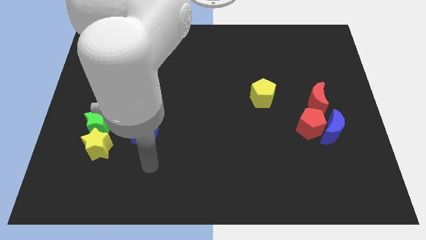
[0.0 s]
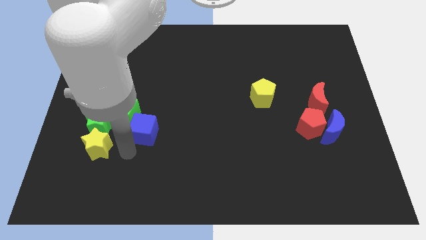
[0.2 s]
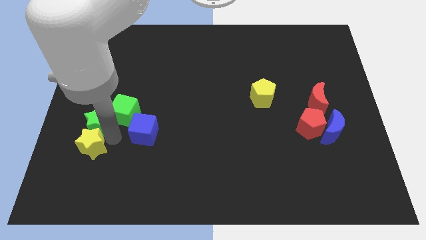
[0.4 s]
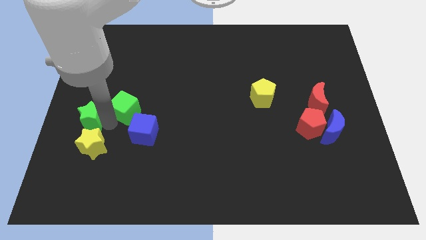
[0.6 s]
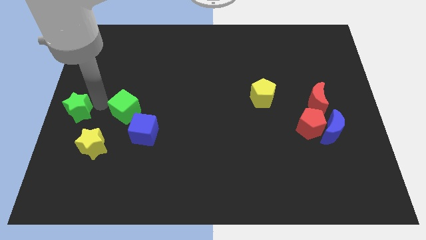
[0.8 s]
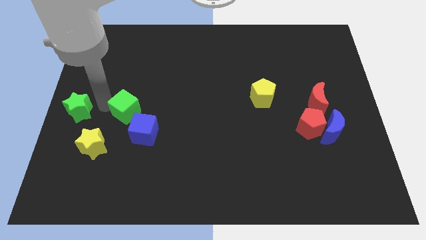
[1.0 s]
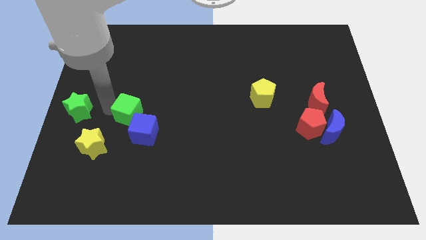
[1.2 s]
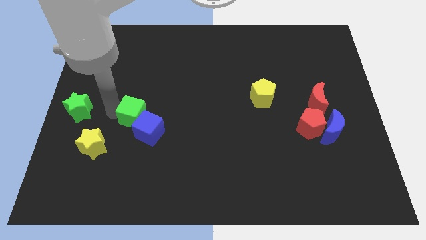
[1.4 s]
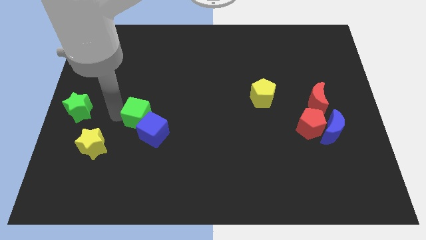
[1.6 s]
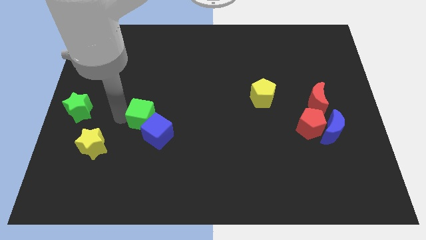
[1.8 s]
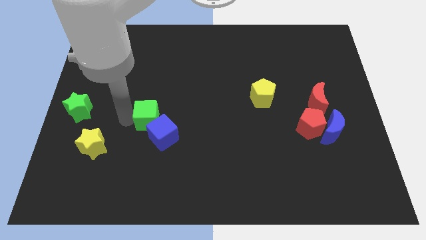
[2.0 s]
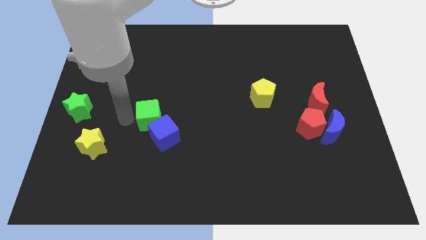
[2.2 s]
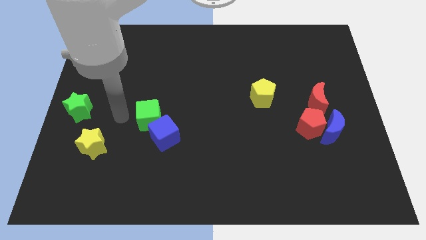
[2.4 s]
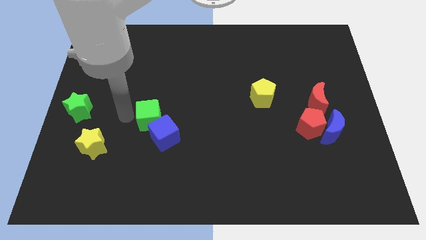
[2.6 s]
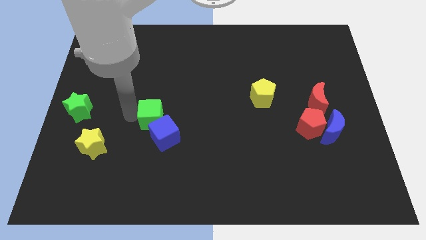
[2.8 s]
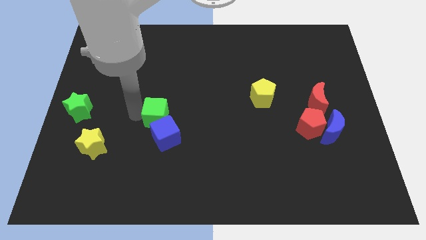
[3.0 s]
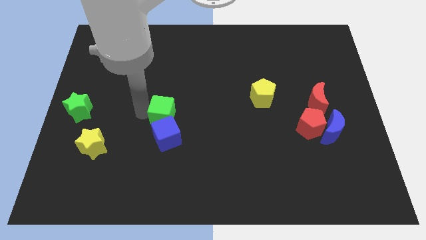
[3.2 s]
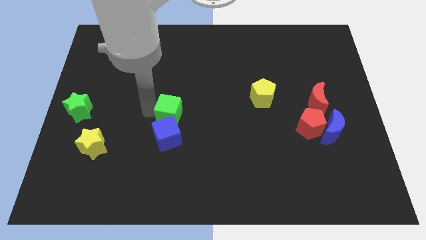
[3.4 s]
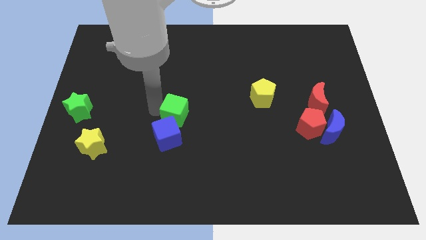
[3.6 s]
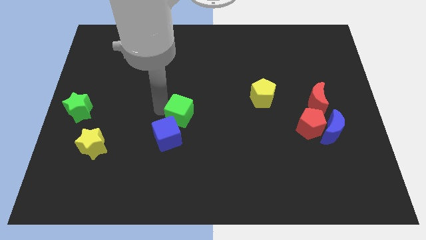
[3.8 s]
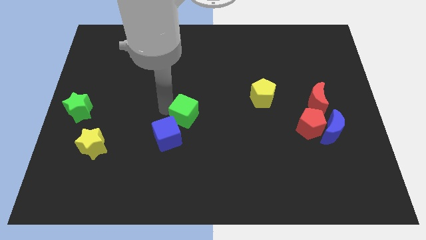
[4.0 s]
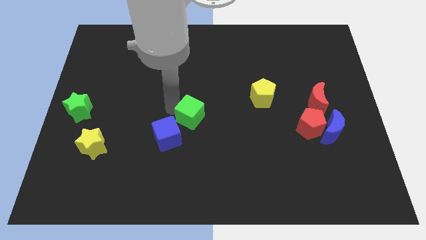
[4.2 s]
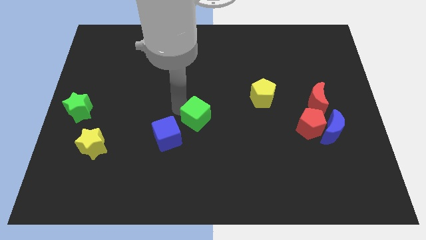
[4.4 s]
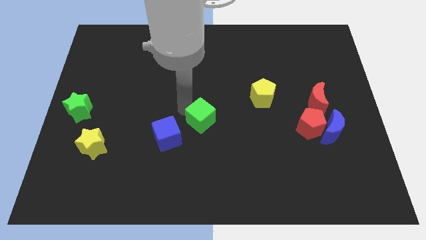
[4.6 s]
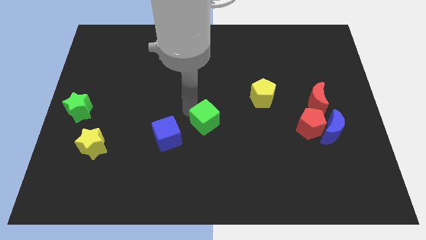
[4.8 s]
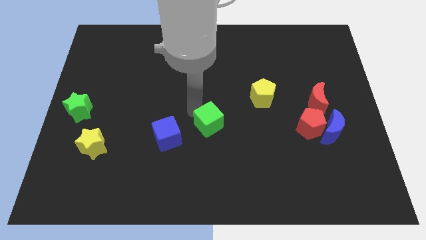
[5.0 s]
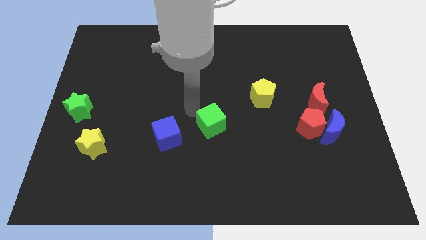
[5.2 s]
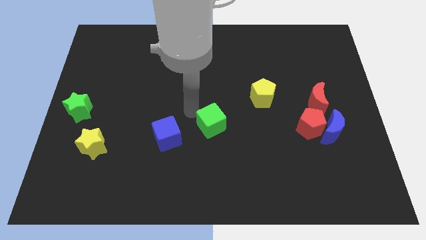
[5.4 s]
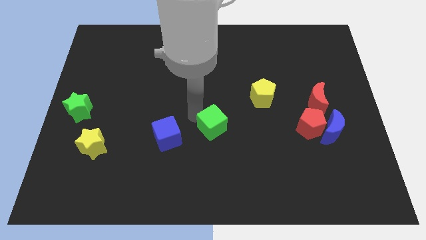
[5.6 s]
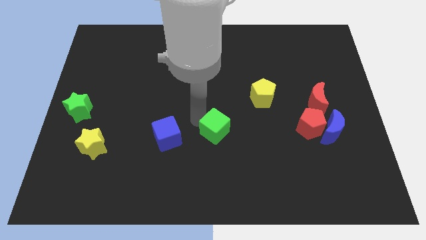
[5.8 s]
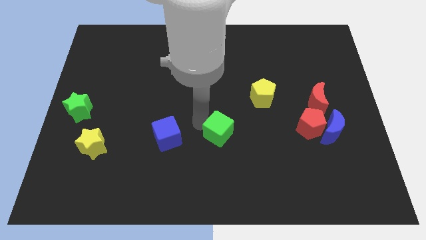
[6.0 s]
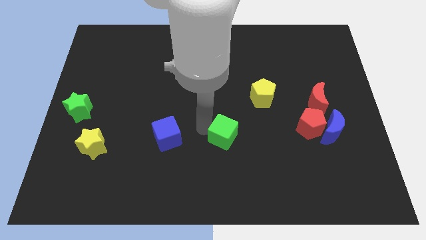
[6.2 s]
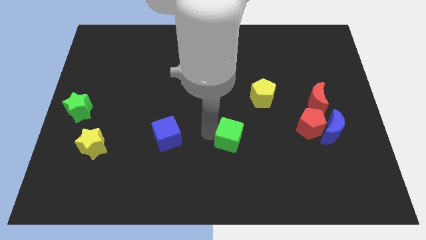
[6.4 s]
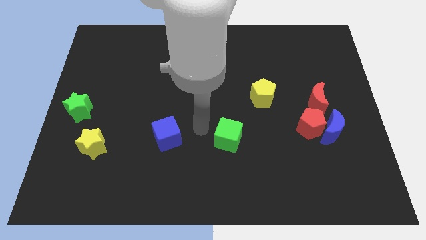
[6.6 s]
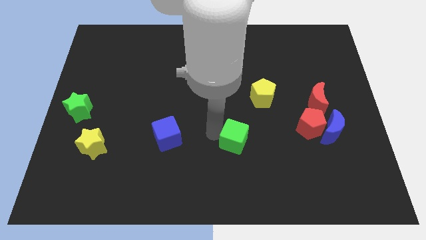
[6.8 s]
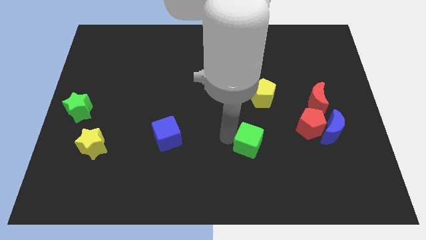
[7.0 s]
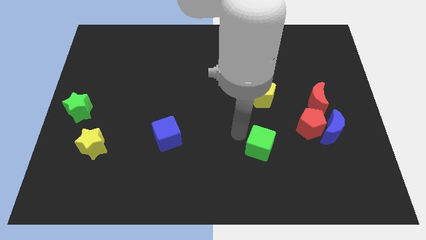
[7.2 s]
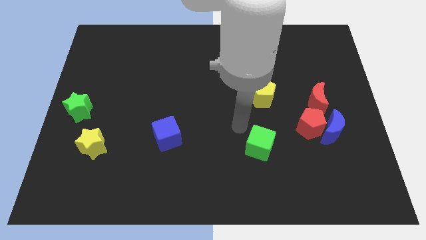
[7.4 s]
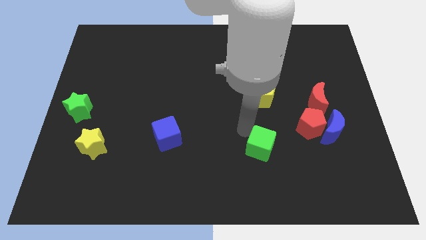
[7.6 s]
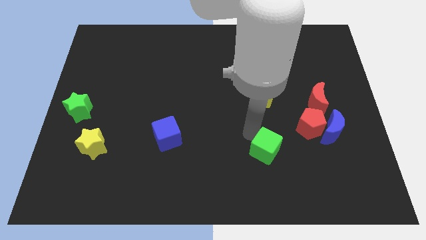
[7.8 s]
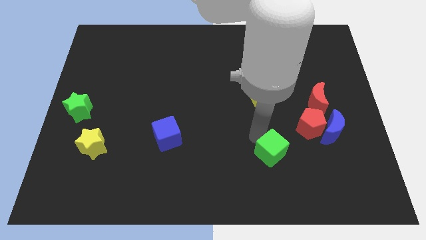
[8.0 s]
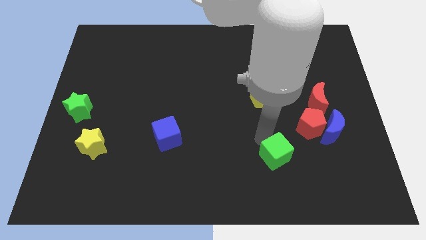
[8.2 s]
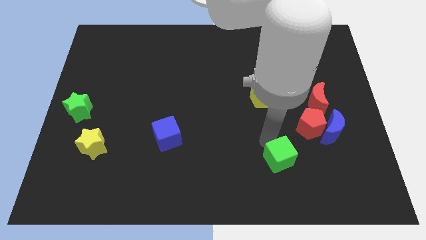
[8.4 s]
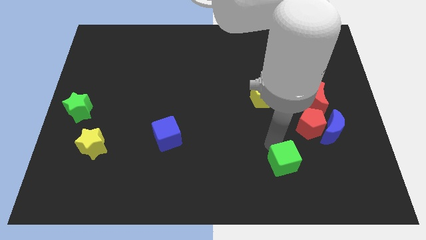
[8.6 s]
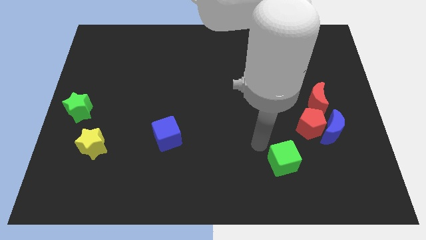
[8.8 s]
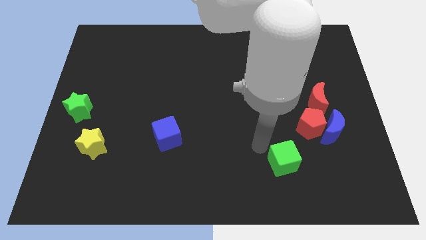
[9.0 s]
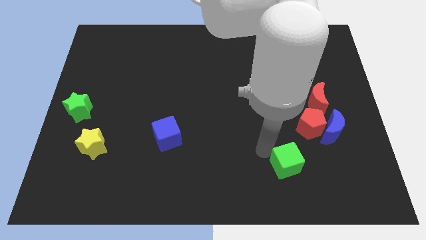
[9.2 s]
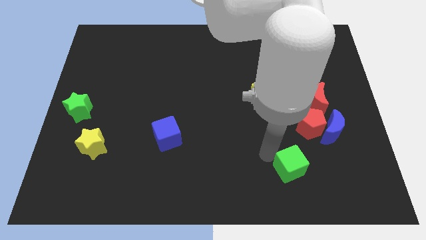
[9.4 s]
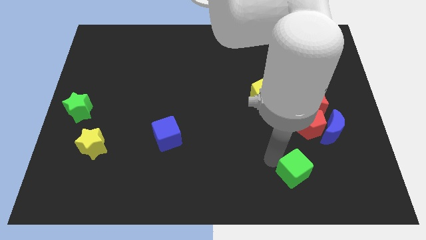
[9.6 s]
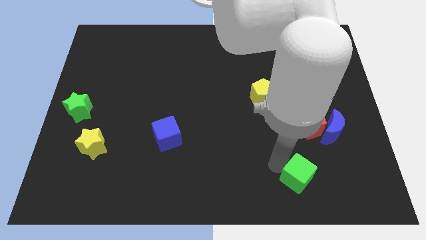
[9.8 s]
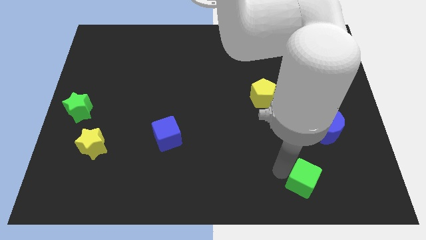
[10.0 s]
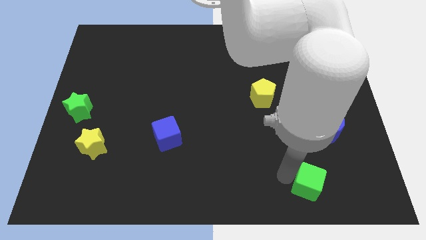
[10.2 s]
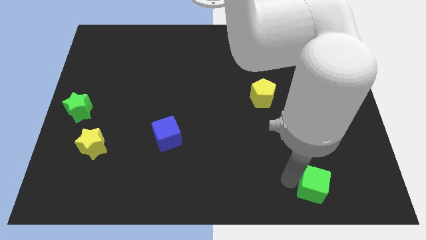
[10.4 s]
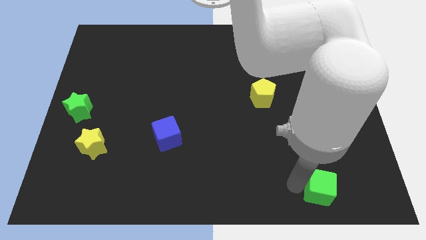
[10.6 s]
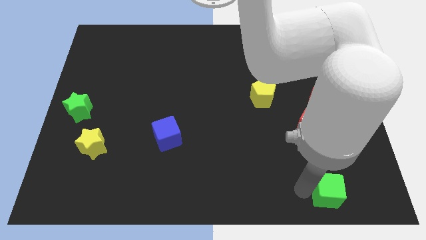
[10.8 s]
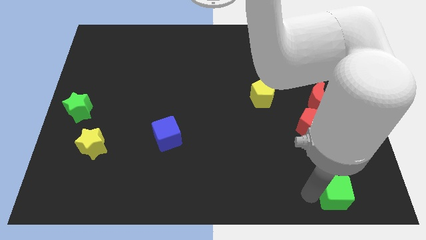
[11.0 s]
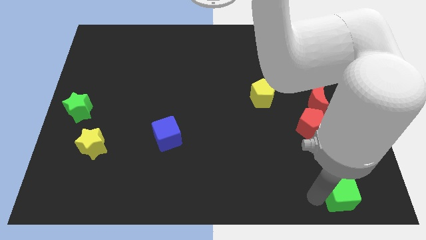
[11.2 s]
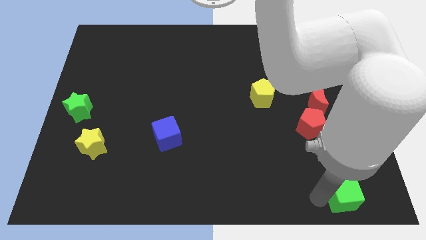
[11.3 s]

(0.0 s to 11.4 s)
move the green cube to the bottom right

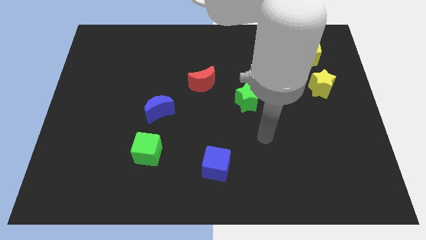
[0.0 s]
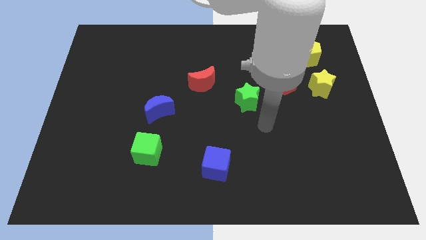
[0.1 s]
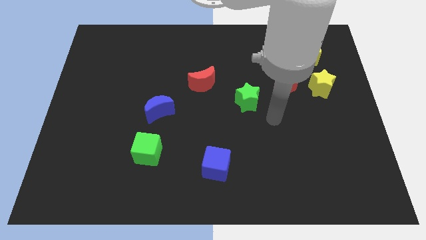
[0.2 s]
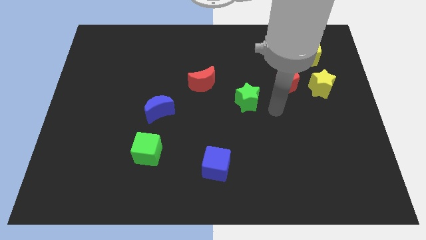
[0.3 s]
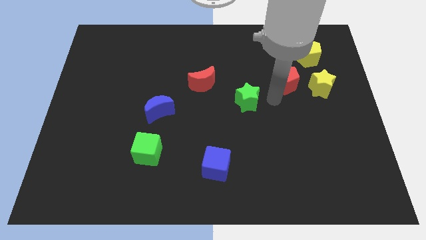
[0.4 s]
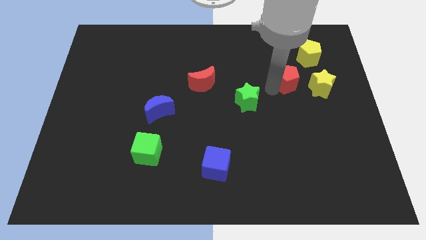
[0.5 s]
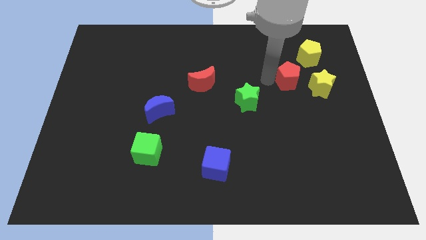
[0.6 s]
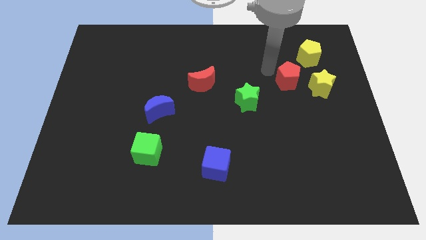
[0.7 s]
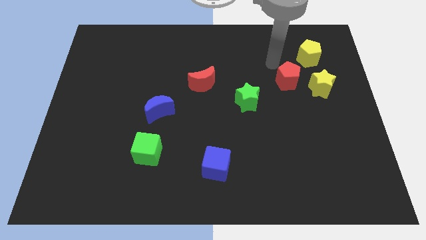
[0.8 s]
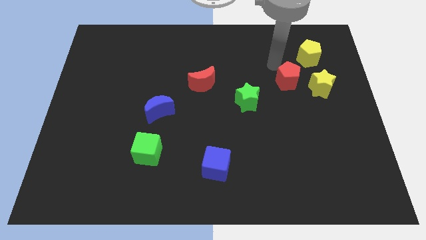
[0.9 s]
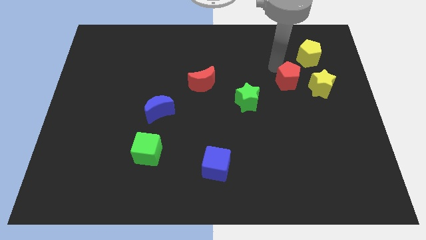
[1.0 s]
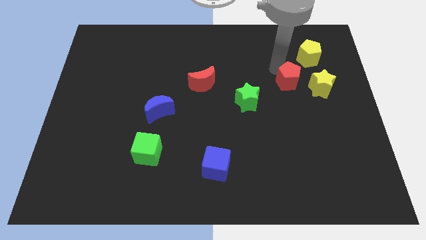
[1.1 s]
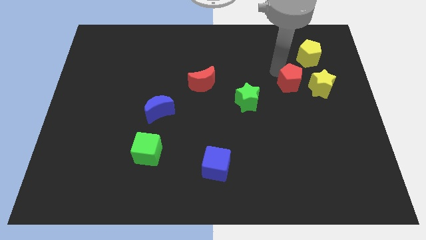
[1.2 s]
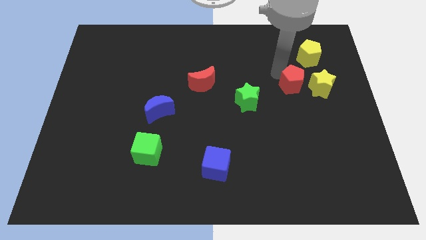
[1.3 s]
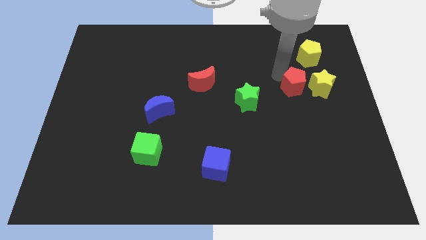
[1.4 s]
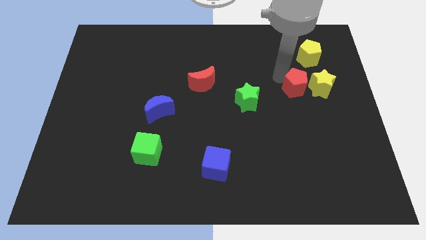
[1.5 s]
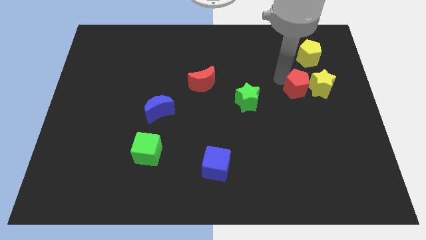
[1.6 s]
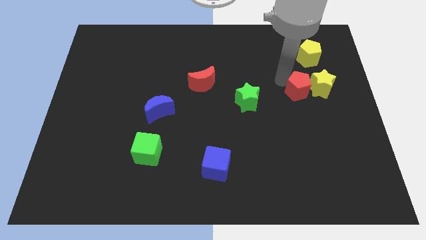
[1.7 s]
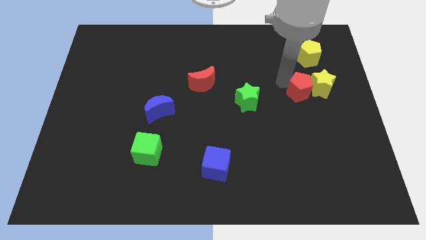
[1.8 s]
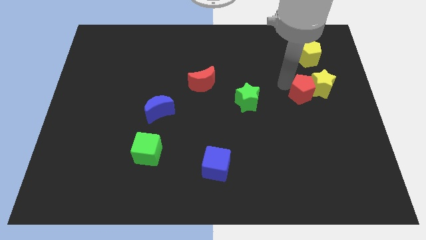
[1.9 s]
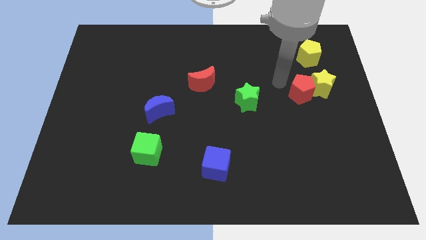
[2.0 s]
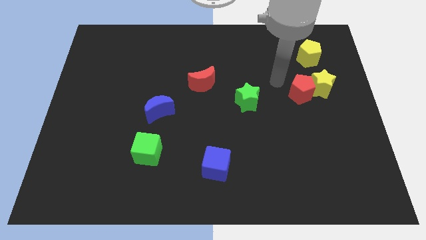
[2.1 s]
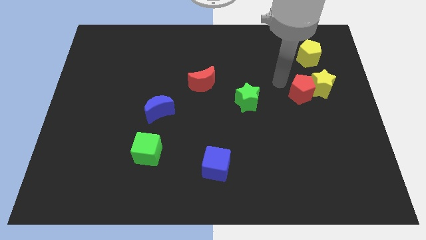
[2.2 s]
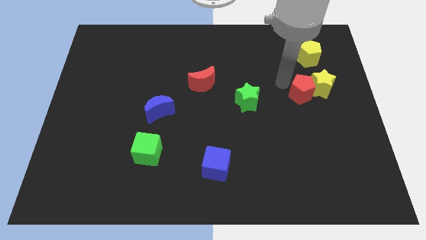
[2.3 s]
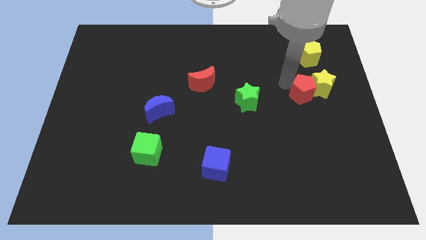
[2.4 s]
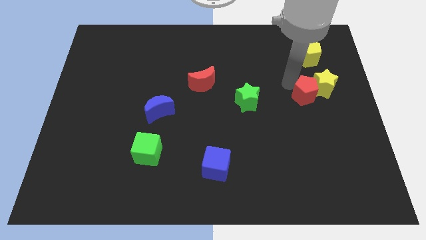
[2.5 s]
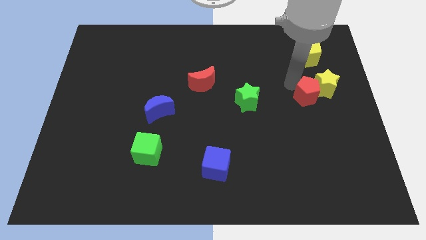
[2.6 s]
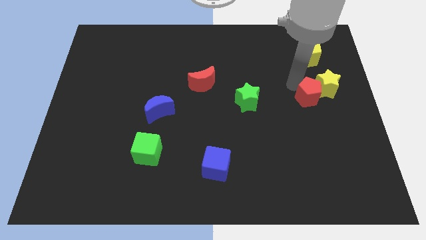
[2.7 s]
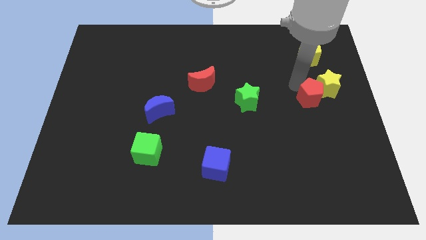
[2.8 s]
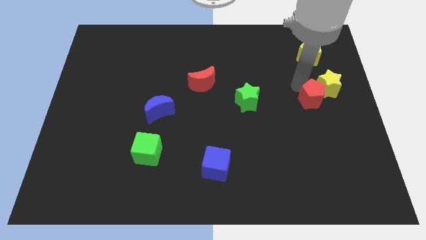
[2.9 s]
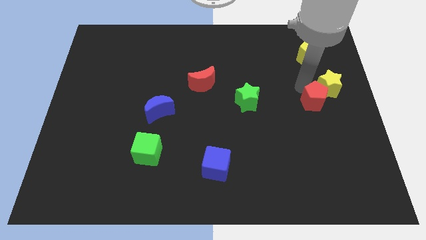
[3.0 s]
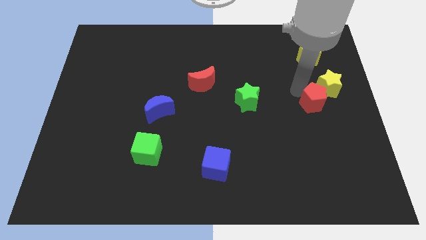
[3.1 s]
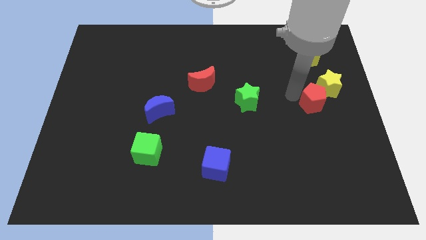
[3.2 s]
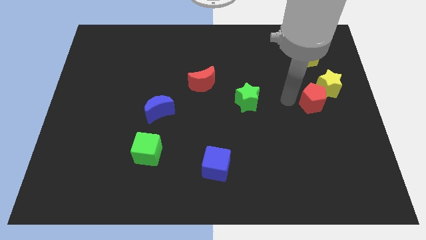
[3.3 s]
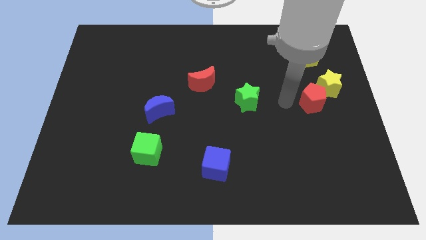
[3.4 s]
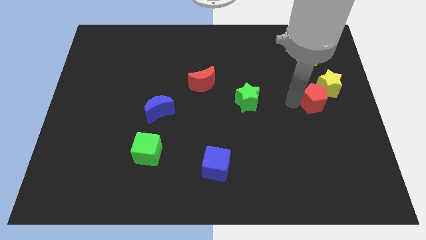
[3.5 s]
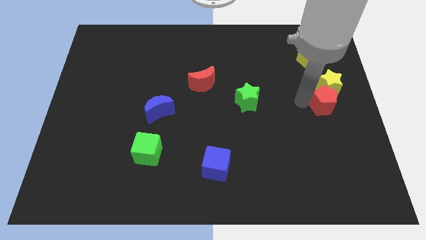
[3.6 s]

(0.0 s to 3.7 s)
push the red pentagon to the right side of the board
